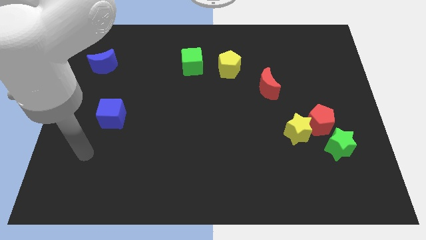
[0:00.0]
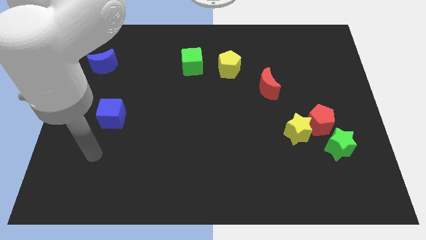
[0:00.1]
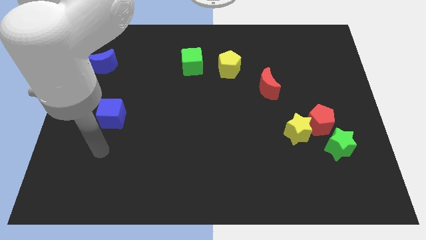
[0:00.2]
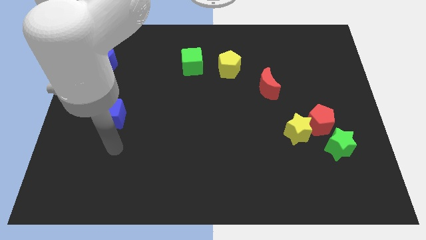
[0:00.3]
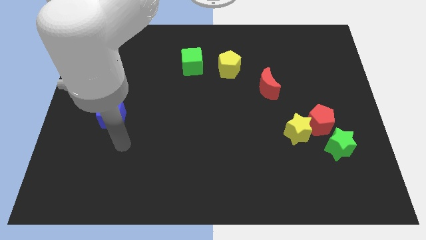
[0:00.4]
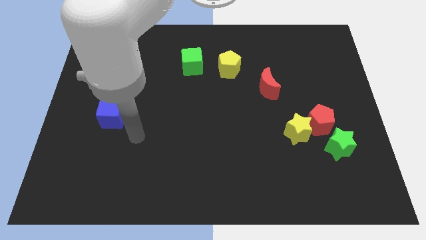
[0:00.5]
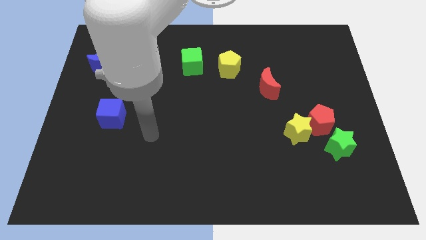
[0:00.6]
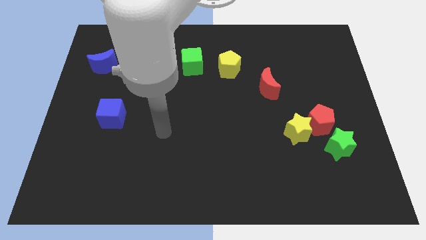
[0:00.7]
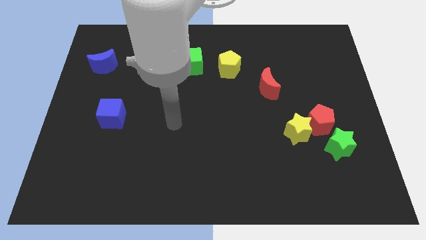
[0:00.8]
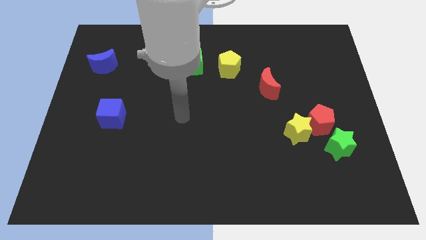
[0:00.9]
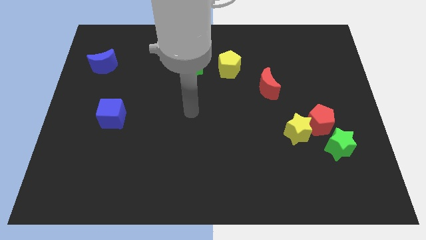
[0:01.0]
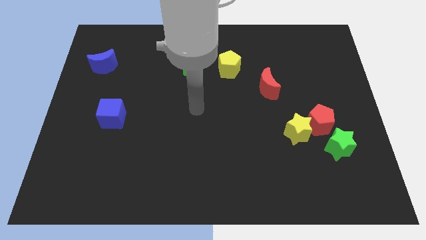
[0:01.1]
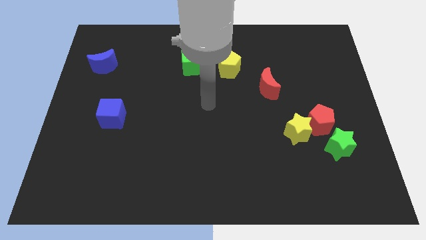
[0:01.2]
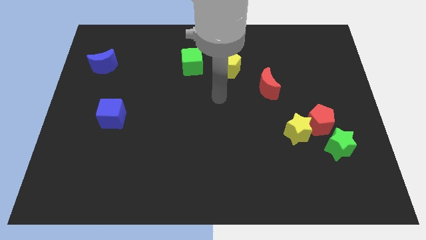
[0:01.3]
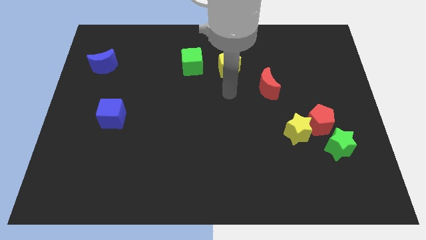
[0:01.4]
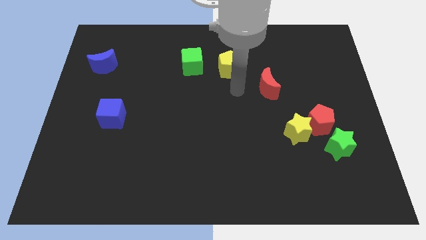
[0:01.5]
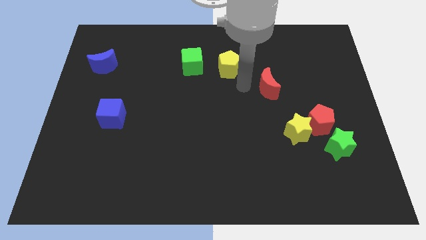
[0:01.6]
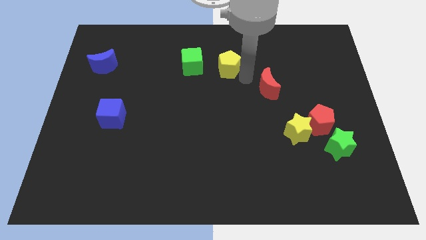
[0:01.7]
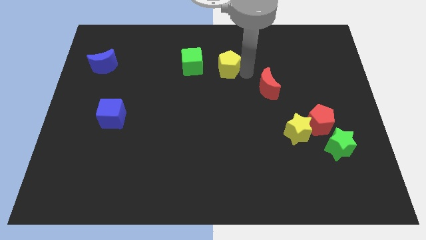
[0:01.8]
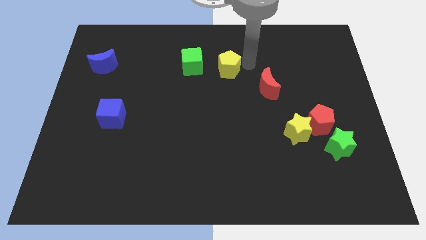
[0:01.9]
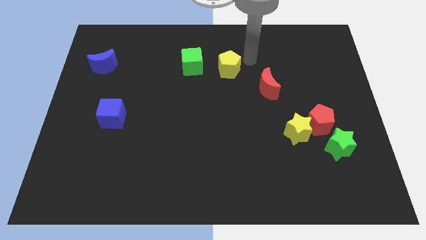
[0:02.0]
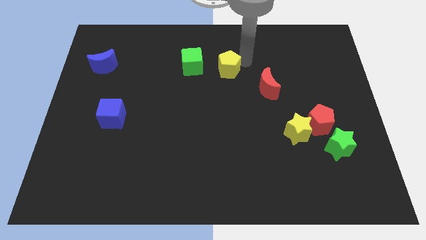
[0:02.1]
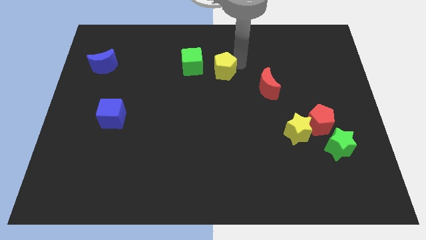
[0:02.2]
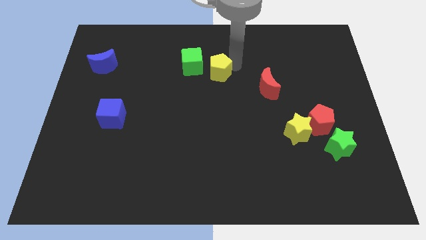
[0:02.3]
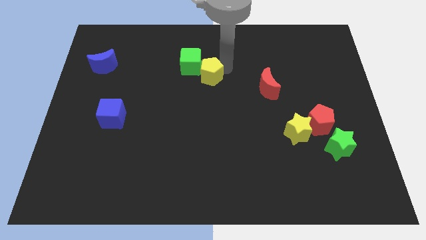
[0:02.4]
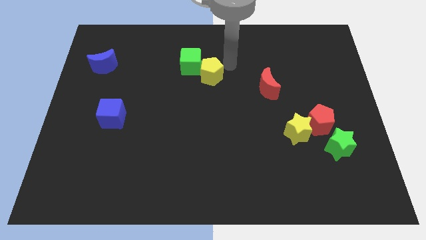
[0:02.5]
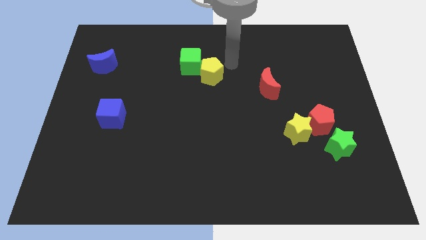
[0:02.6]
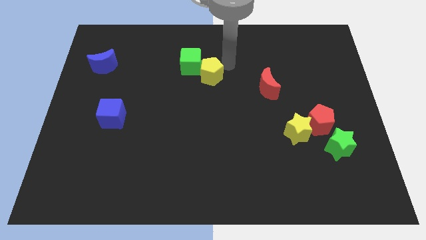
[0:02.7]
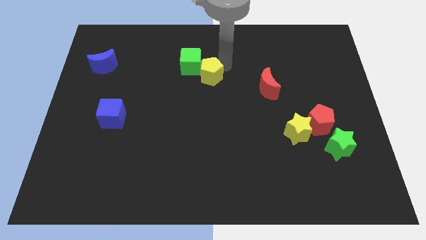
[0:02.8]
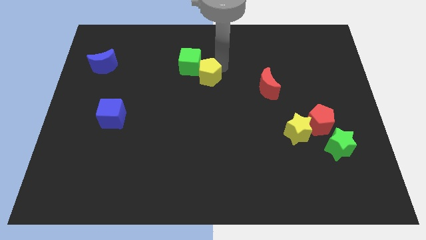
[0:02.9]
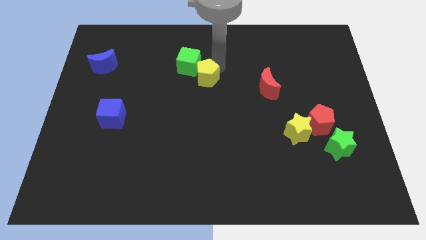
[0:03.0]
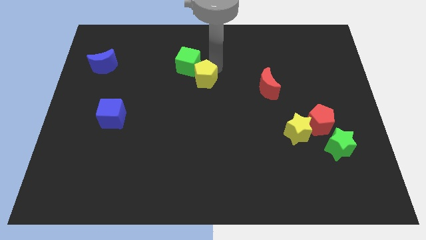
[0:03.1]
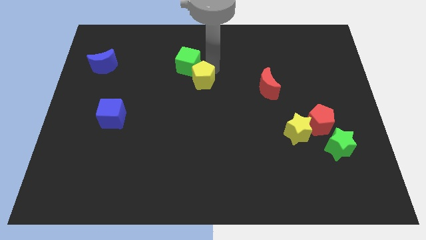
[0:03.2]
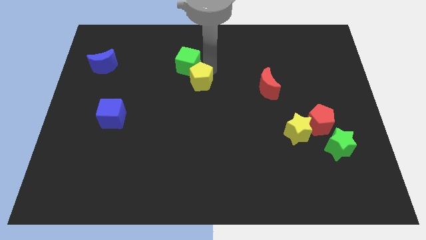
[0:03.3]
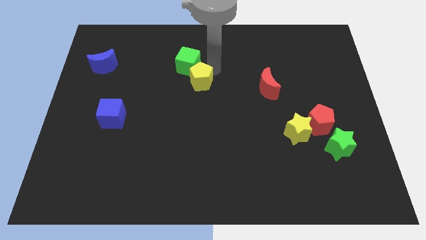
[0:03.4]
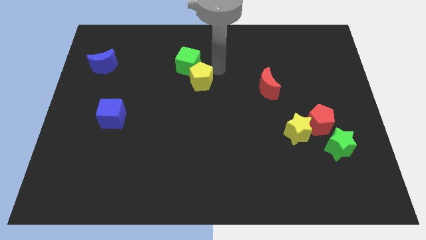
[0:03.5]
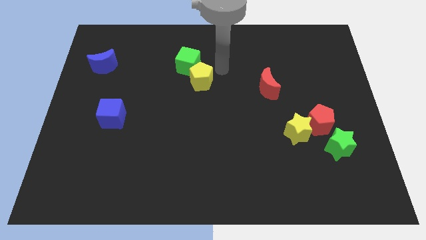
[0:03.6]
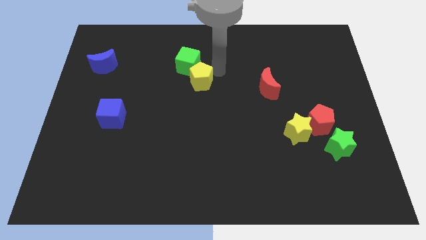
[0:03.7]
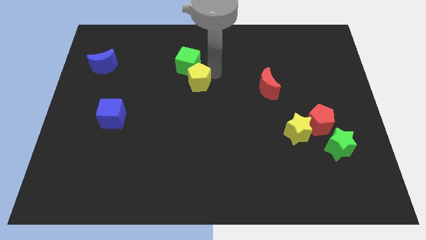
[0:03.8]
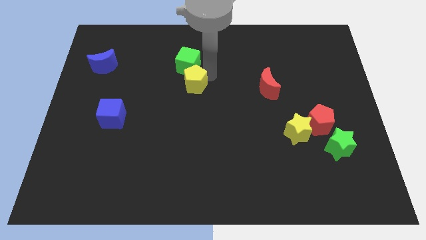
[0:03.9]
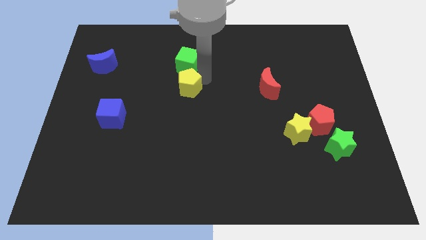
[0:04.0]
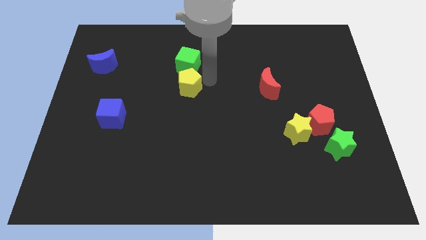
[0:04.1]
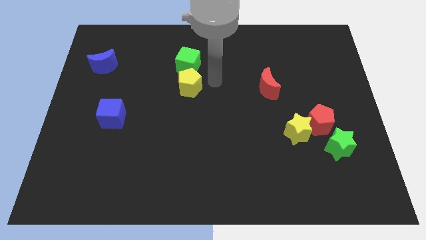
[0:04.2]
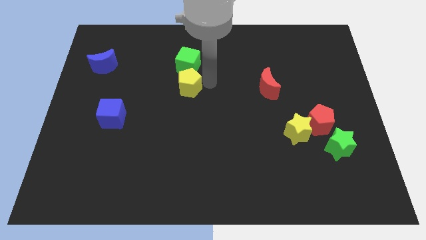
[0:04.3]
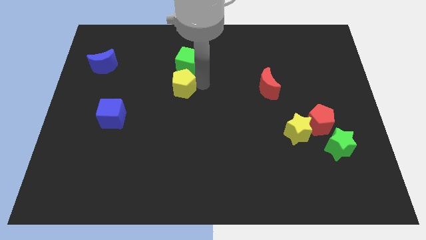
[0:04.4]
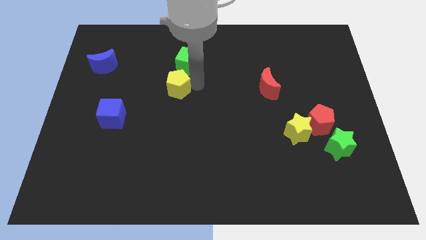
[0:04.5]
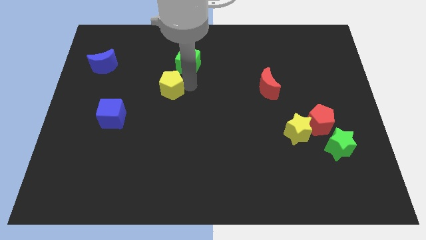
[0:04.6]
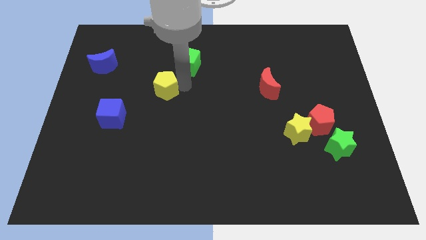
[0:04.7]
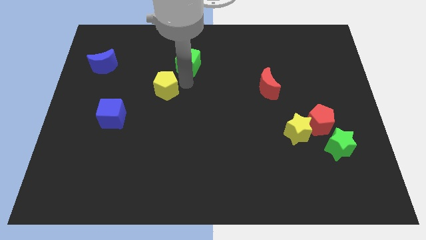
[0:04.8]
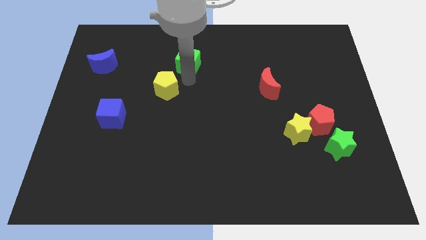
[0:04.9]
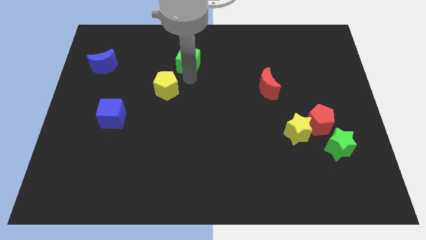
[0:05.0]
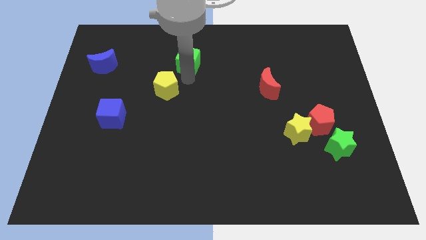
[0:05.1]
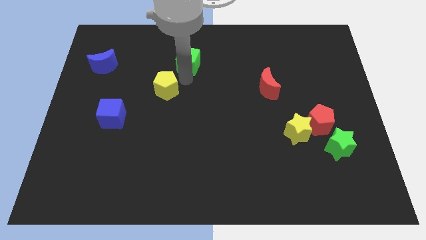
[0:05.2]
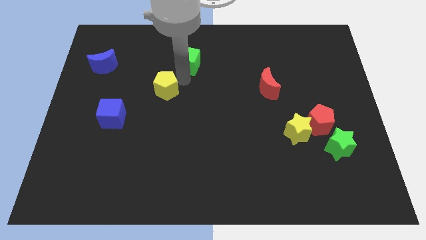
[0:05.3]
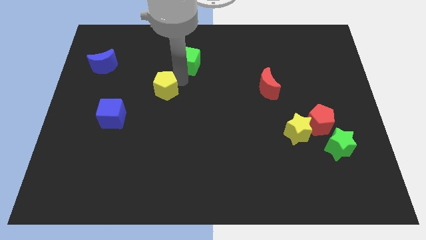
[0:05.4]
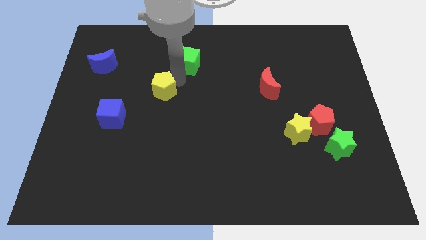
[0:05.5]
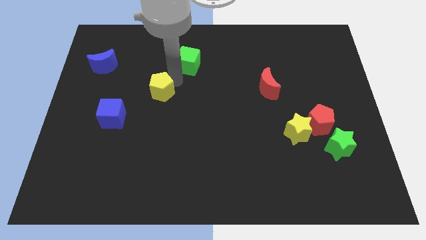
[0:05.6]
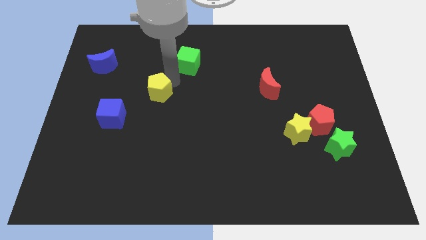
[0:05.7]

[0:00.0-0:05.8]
push the yellow pentagon diagonally up and to the right of the blue cube

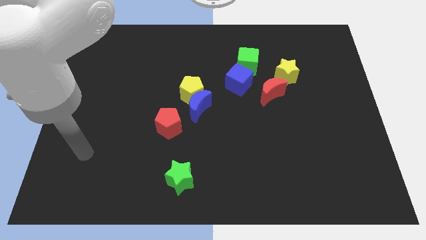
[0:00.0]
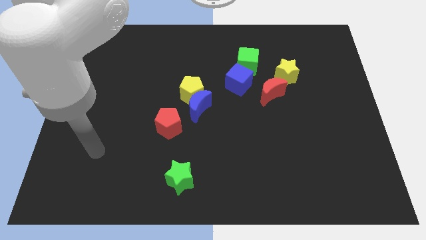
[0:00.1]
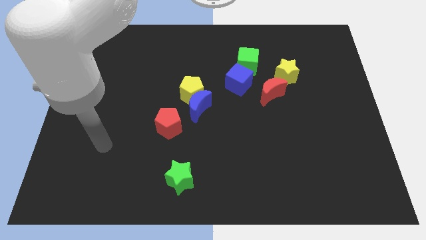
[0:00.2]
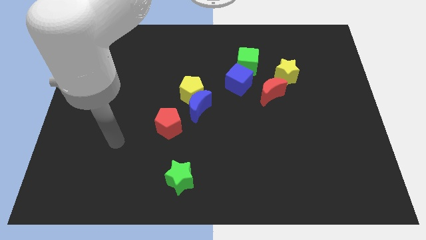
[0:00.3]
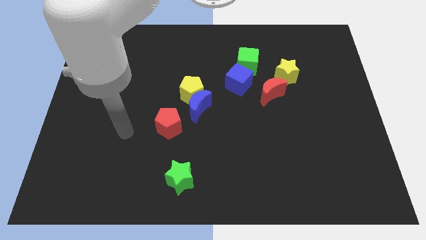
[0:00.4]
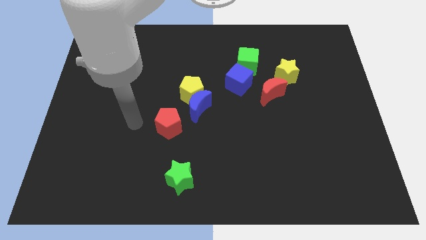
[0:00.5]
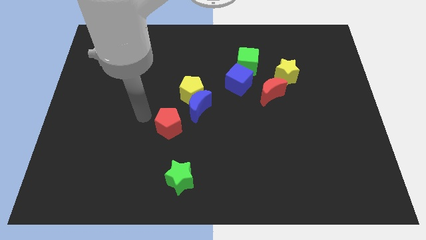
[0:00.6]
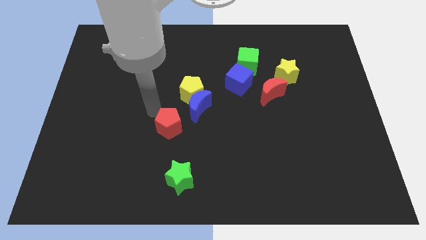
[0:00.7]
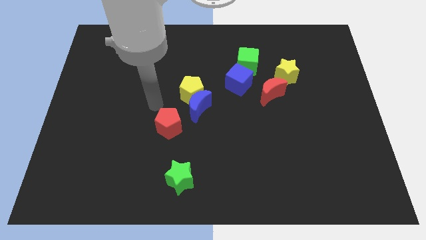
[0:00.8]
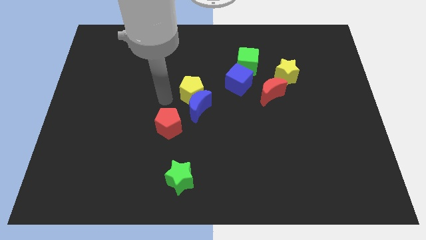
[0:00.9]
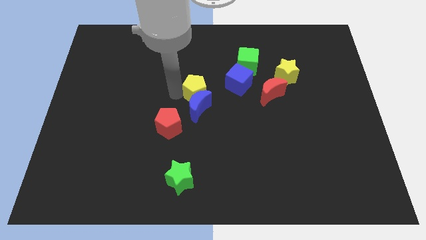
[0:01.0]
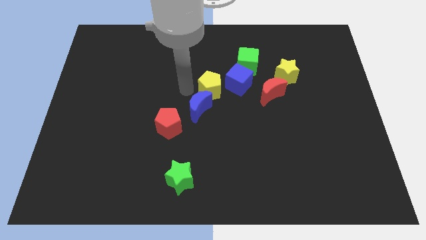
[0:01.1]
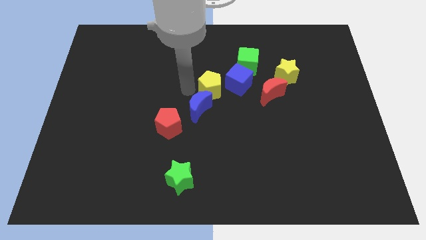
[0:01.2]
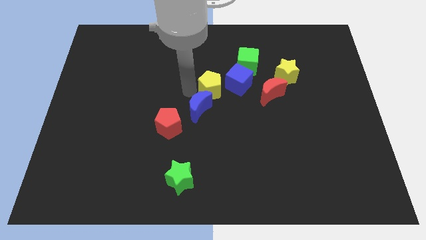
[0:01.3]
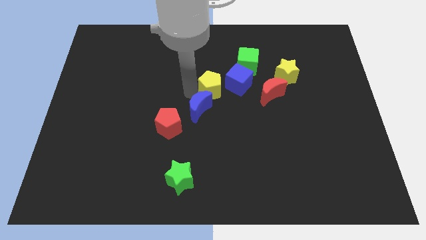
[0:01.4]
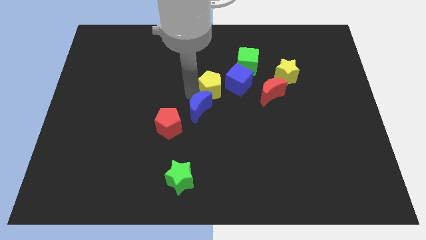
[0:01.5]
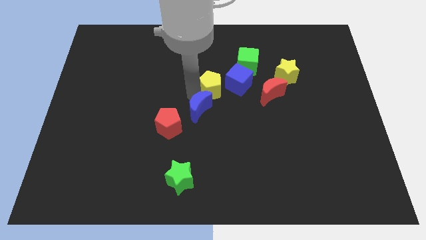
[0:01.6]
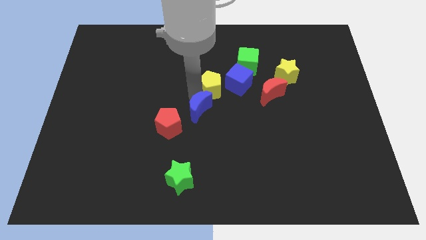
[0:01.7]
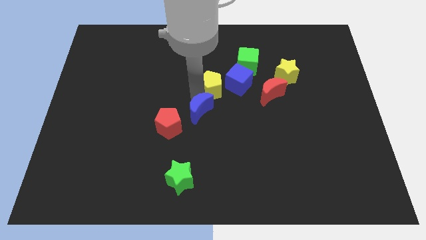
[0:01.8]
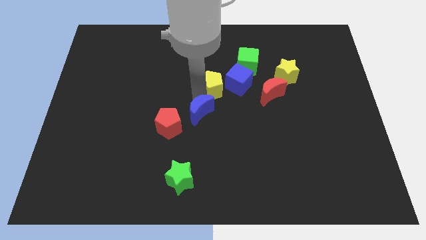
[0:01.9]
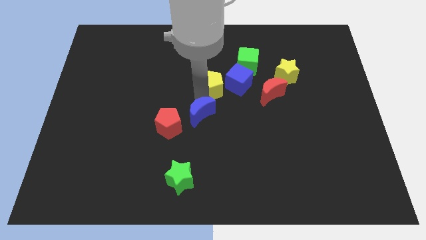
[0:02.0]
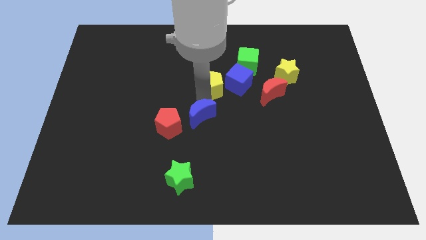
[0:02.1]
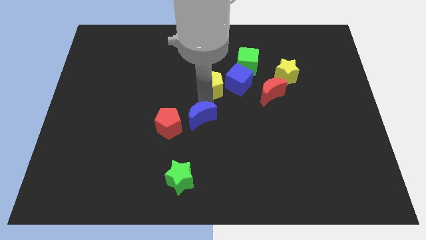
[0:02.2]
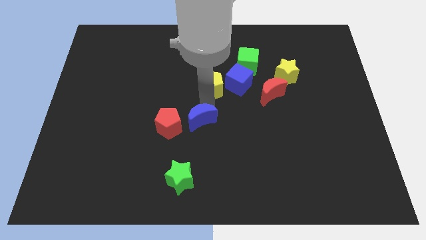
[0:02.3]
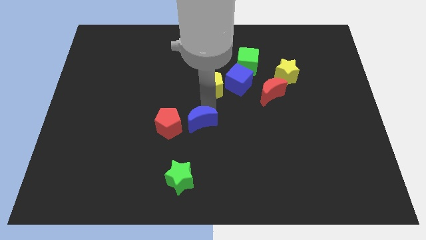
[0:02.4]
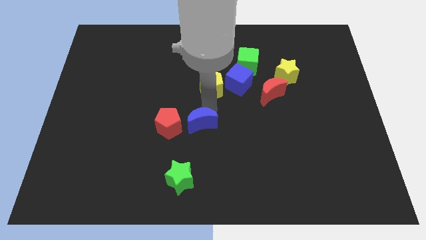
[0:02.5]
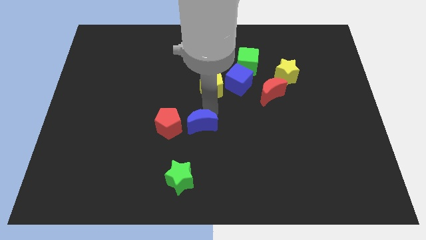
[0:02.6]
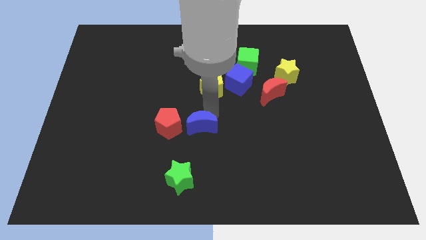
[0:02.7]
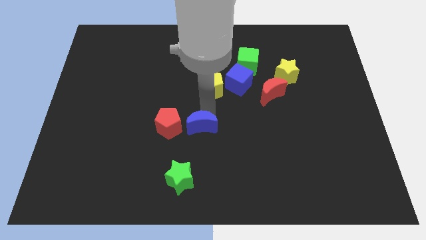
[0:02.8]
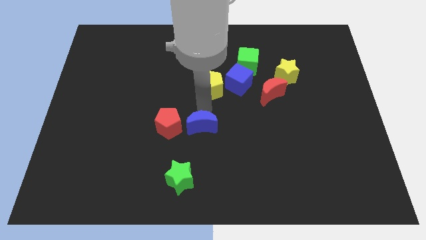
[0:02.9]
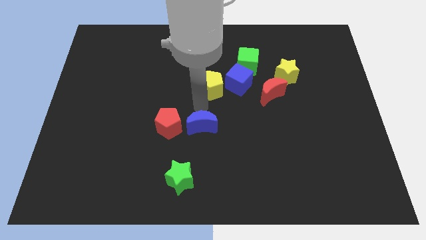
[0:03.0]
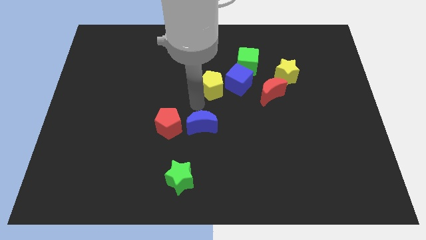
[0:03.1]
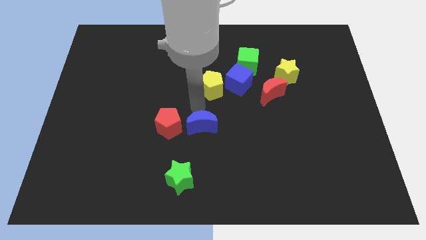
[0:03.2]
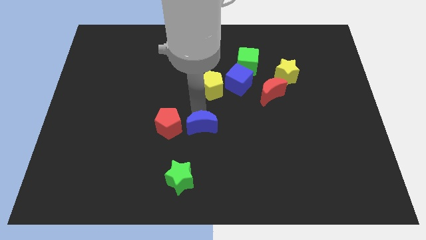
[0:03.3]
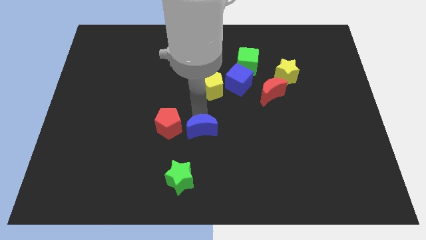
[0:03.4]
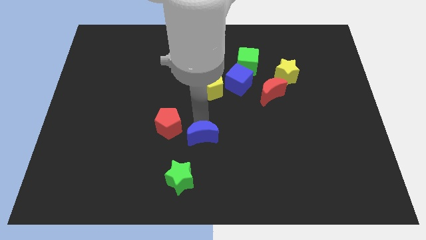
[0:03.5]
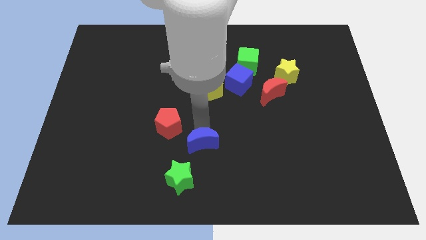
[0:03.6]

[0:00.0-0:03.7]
put the blue moon to the top right of the green star
